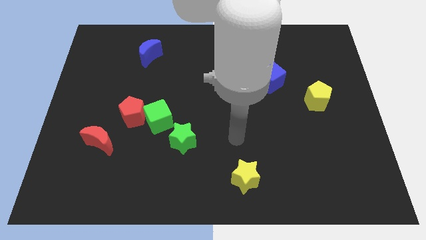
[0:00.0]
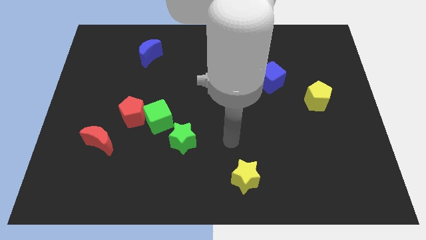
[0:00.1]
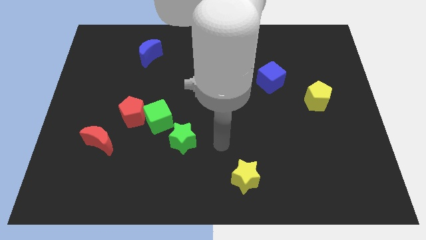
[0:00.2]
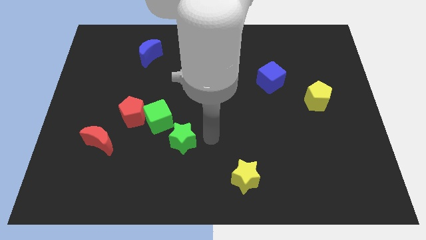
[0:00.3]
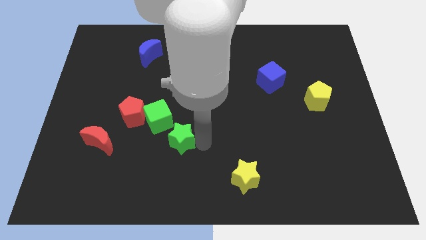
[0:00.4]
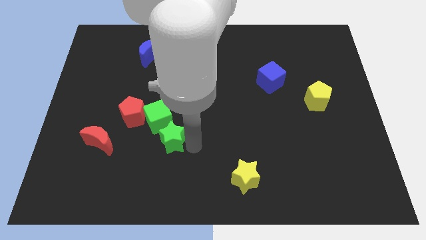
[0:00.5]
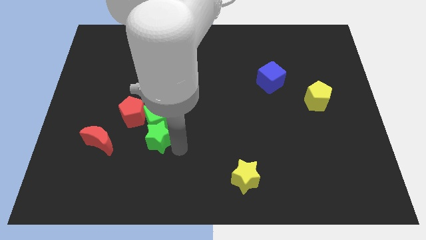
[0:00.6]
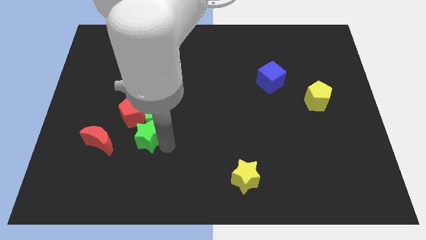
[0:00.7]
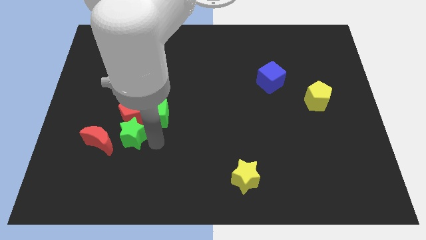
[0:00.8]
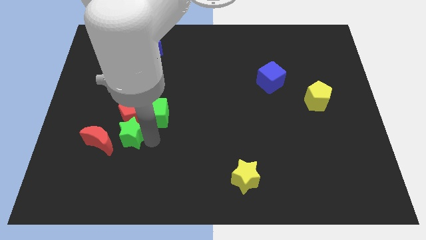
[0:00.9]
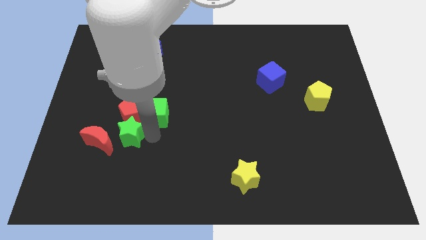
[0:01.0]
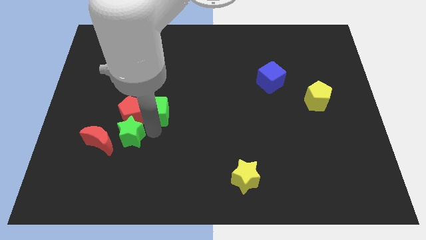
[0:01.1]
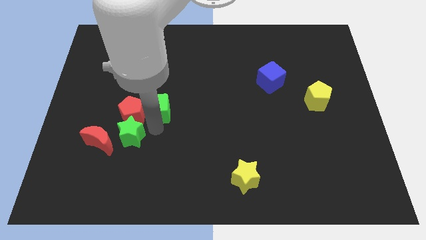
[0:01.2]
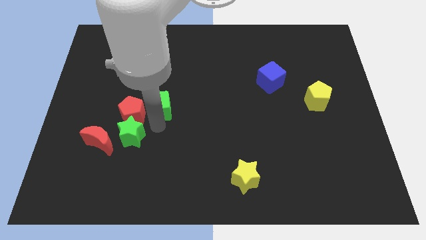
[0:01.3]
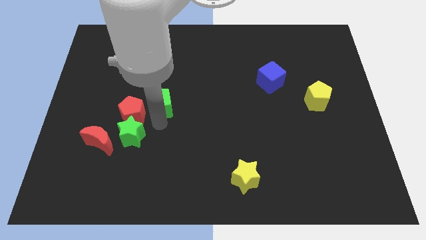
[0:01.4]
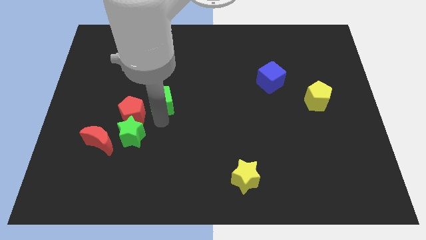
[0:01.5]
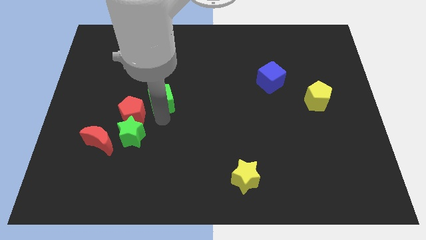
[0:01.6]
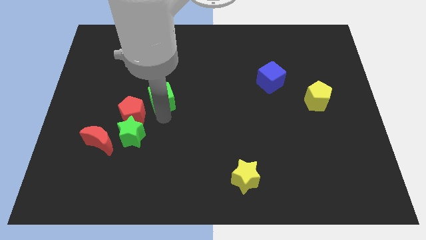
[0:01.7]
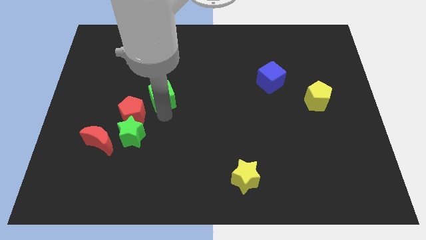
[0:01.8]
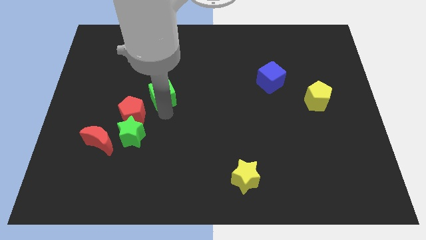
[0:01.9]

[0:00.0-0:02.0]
move the green cube away from the red pentagon and green star

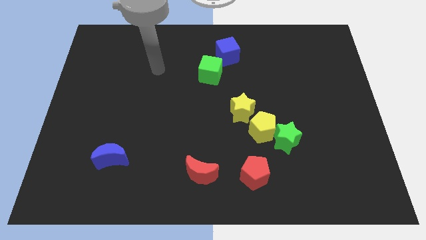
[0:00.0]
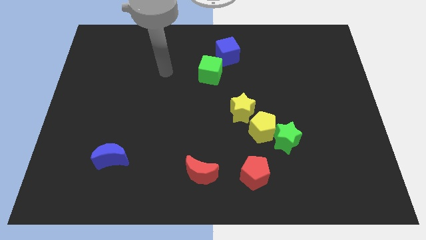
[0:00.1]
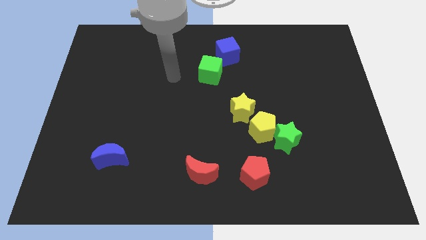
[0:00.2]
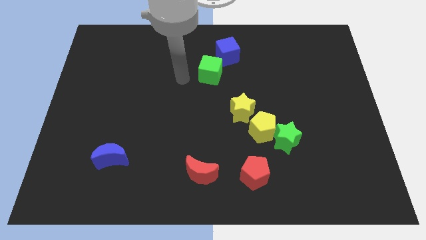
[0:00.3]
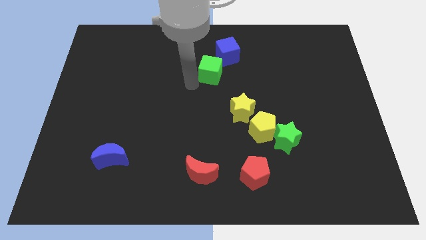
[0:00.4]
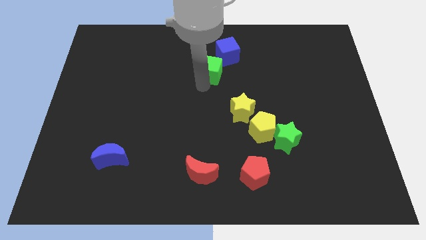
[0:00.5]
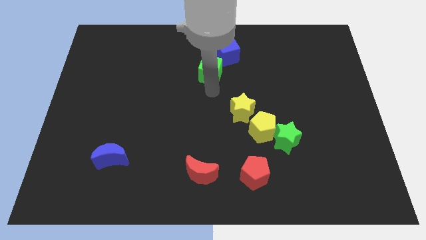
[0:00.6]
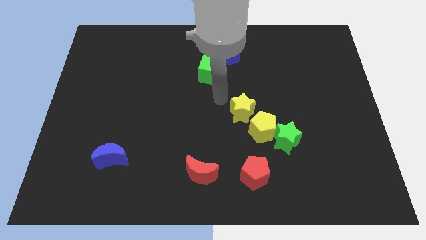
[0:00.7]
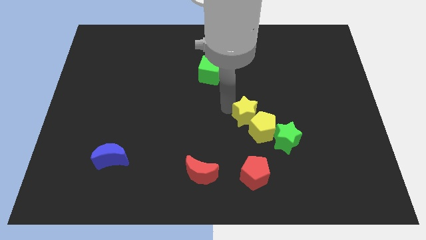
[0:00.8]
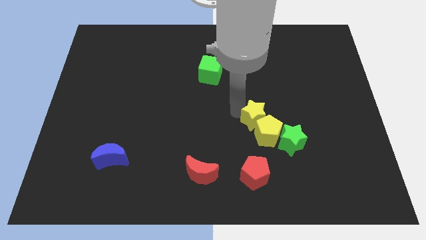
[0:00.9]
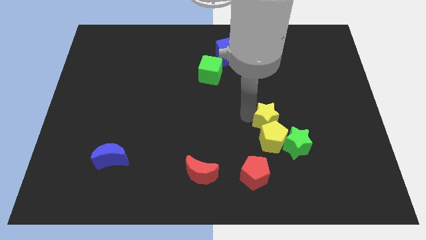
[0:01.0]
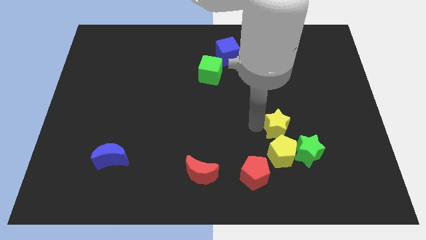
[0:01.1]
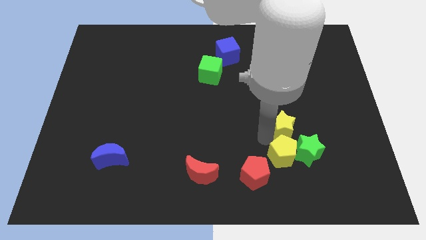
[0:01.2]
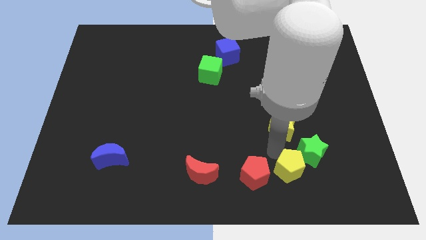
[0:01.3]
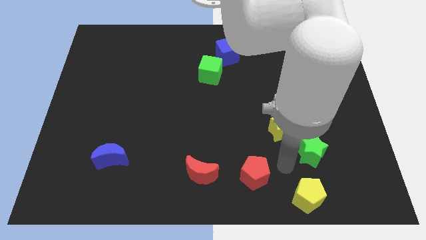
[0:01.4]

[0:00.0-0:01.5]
separate the green star from the yellow pentagon

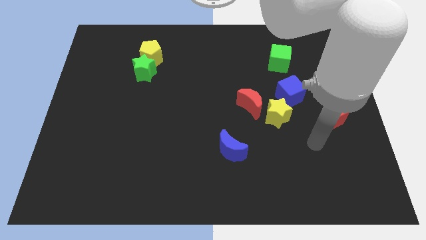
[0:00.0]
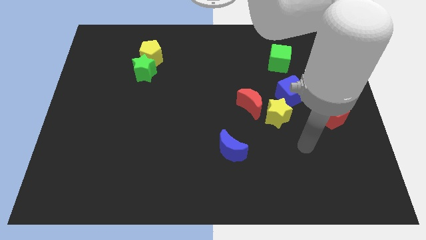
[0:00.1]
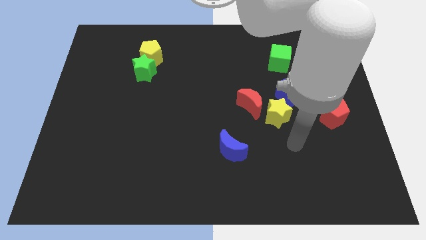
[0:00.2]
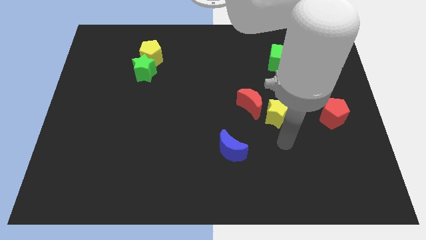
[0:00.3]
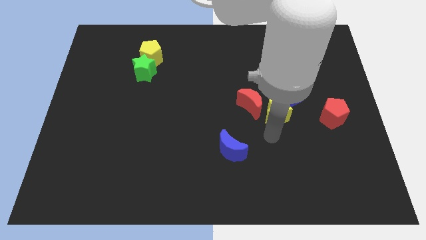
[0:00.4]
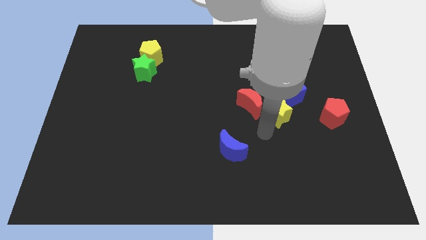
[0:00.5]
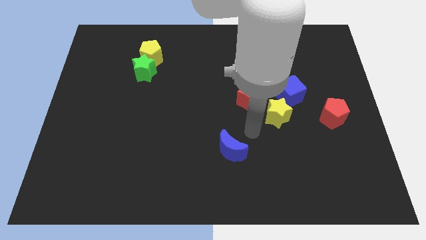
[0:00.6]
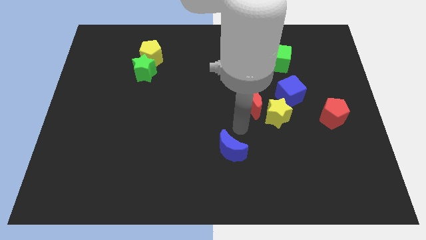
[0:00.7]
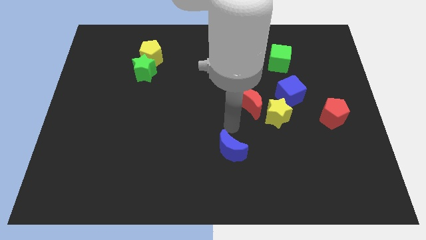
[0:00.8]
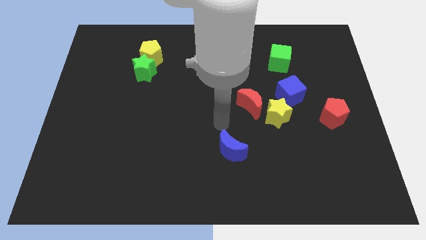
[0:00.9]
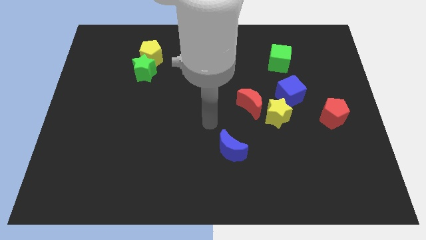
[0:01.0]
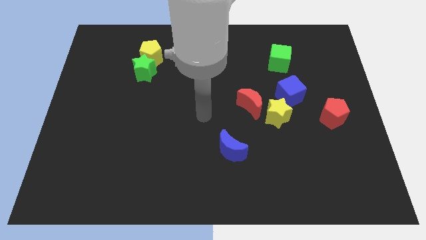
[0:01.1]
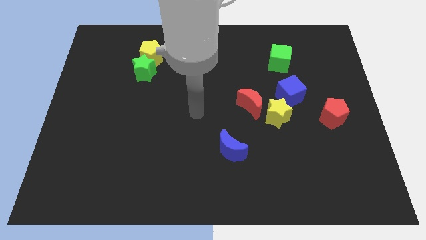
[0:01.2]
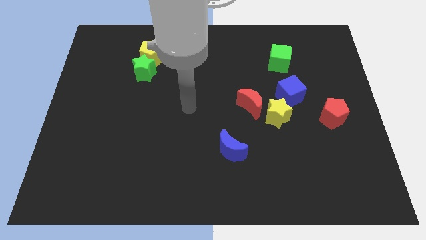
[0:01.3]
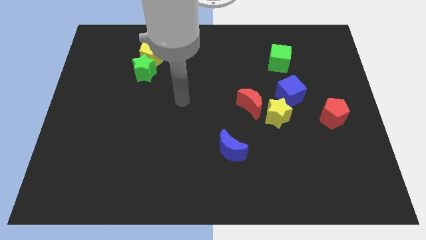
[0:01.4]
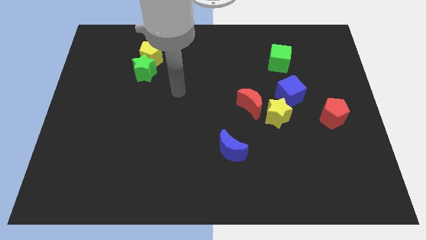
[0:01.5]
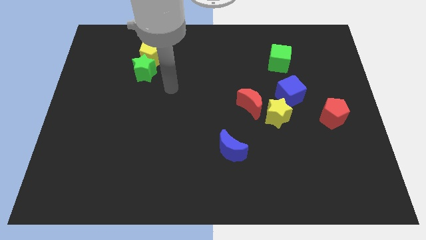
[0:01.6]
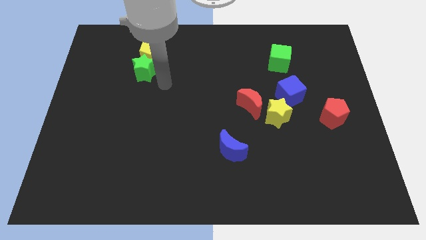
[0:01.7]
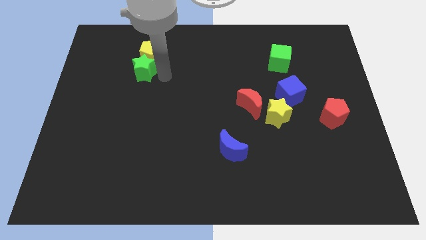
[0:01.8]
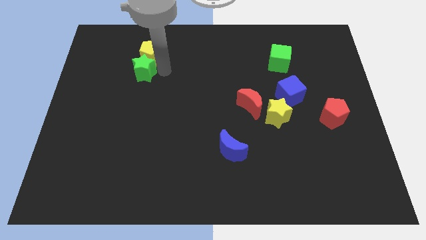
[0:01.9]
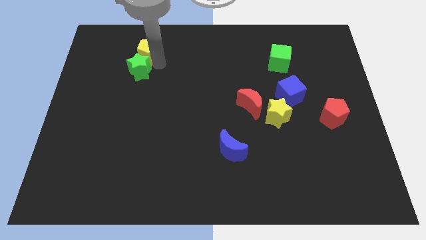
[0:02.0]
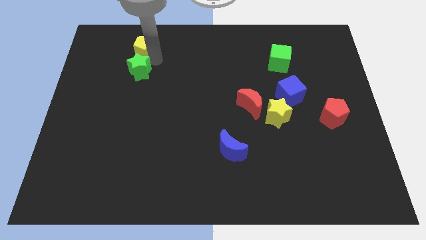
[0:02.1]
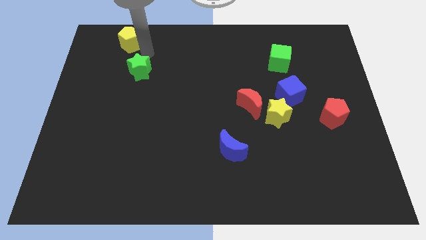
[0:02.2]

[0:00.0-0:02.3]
move the green star away from the yellow pentagon

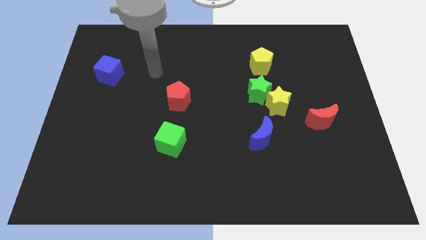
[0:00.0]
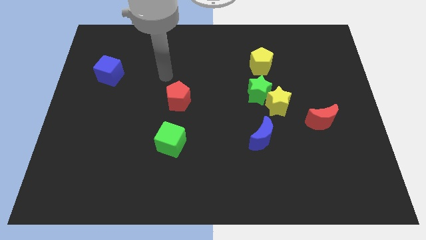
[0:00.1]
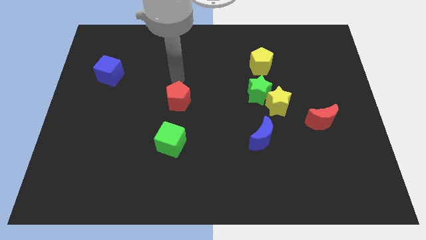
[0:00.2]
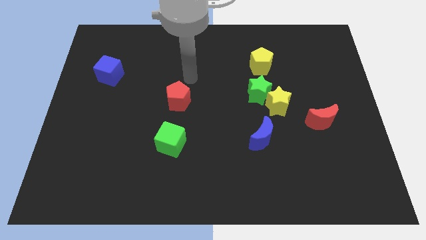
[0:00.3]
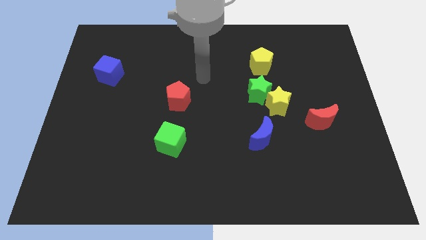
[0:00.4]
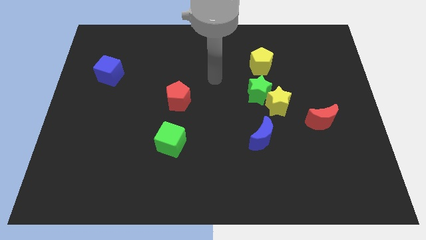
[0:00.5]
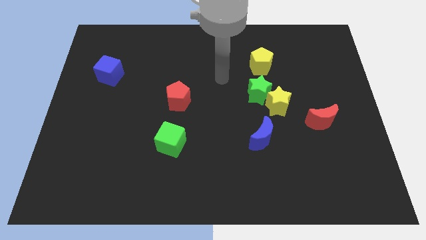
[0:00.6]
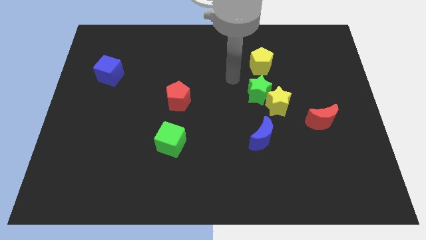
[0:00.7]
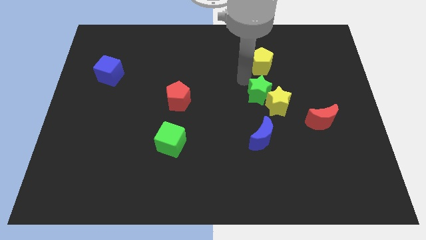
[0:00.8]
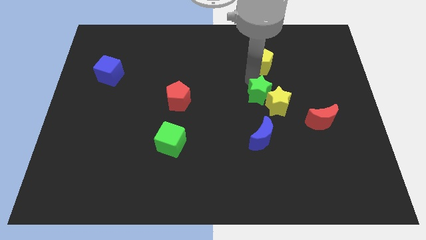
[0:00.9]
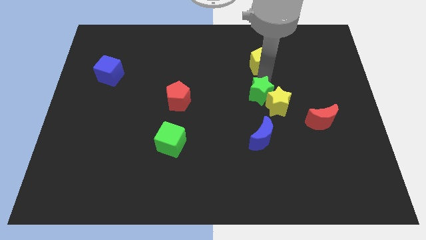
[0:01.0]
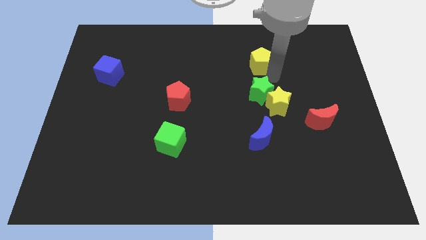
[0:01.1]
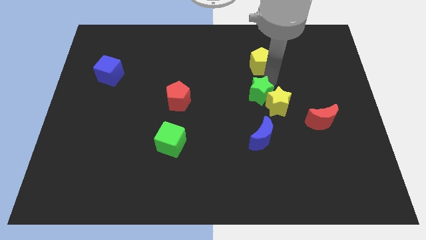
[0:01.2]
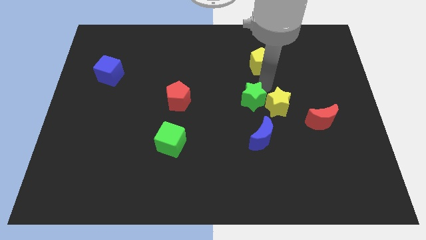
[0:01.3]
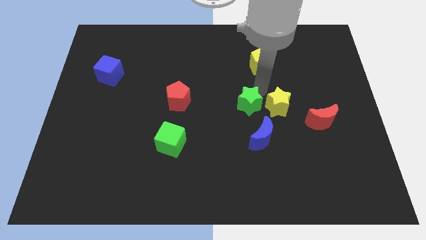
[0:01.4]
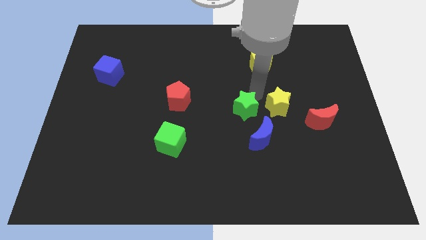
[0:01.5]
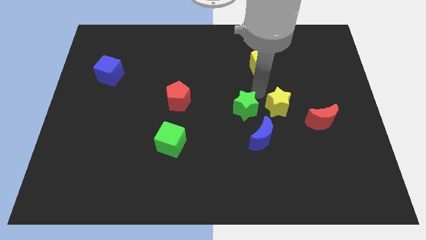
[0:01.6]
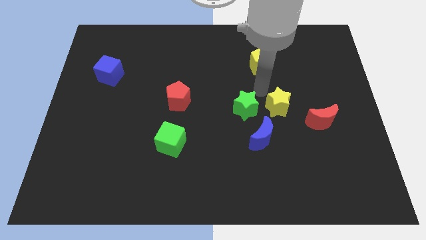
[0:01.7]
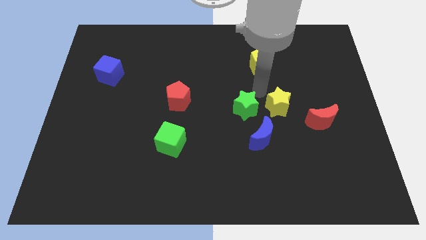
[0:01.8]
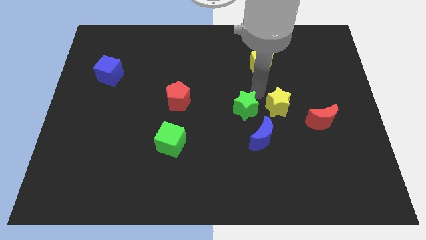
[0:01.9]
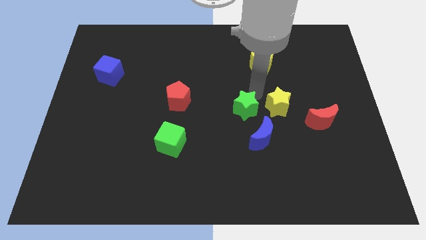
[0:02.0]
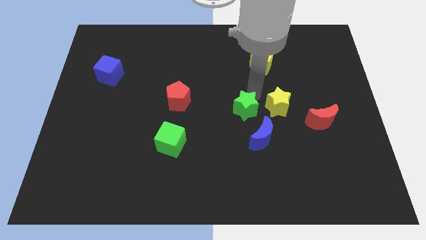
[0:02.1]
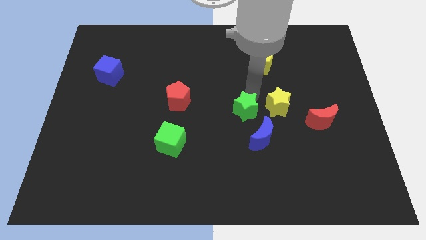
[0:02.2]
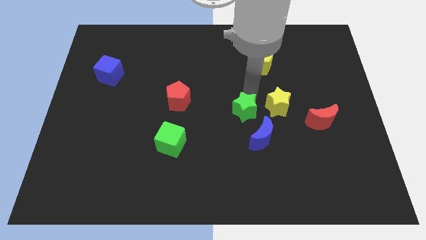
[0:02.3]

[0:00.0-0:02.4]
move the green star away from the yellow star and yellow pentagon

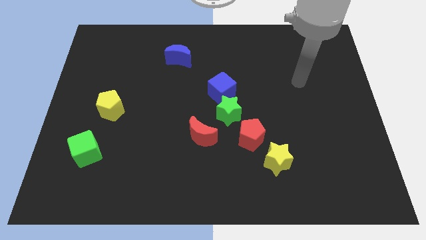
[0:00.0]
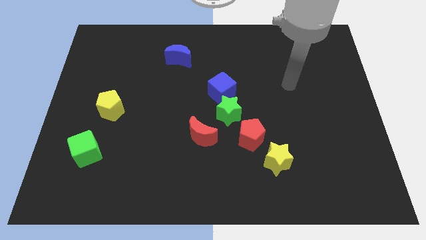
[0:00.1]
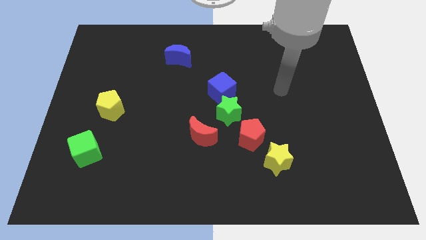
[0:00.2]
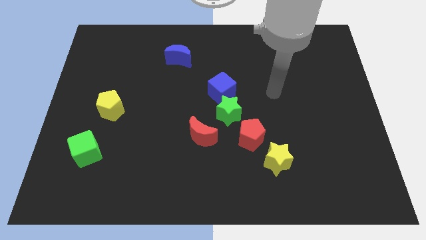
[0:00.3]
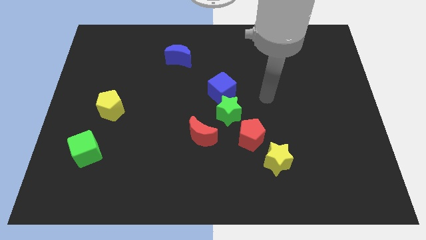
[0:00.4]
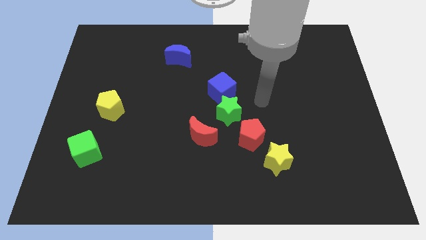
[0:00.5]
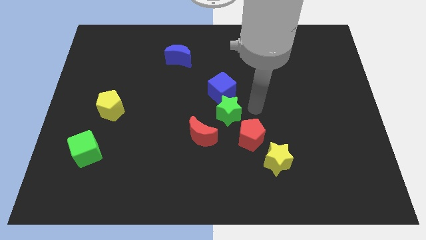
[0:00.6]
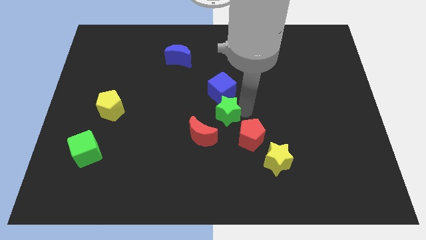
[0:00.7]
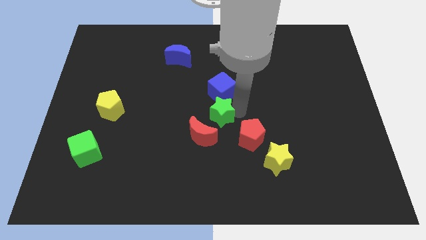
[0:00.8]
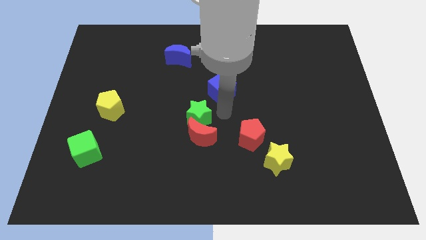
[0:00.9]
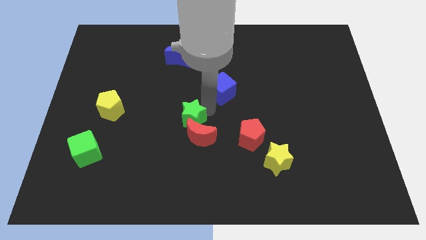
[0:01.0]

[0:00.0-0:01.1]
separate the blue cube from the green star
